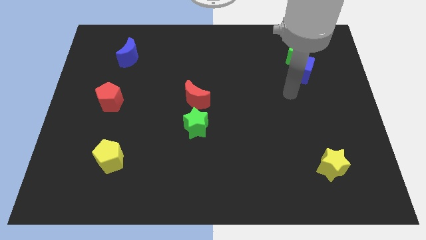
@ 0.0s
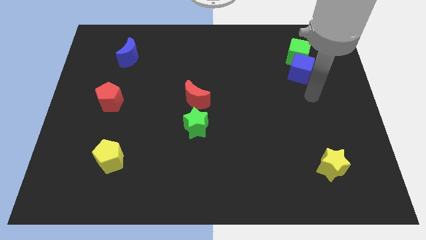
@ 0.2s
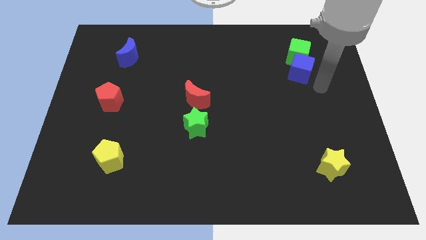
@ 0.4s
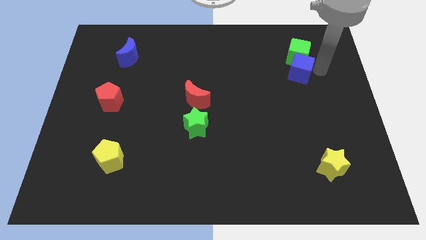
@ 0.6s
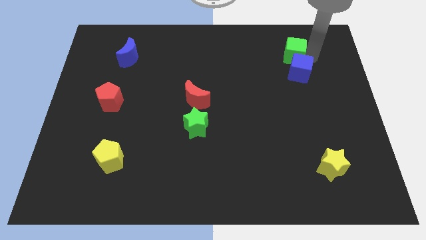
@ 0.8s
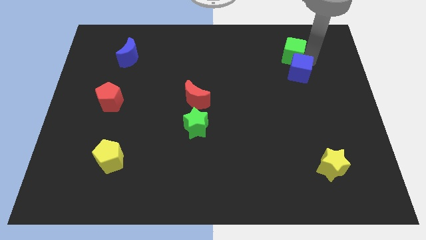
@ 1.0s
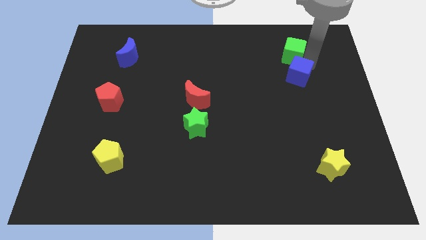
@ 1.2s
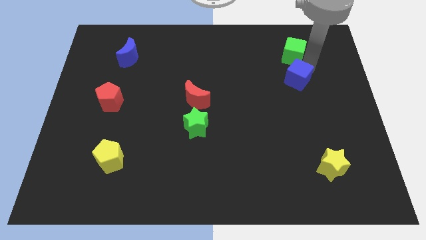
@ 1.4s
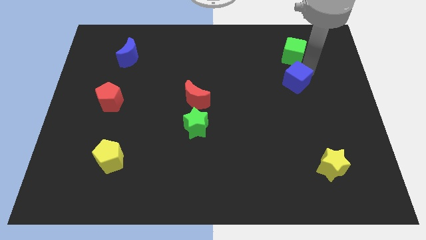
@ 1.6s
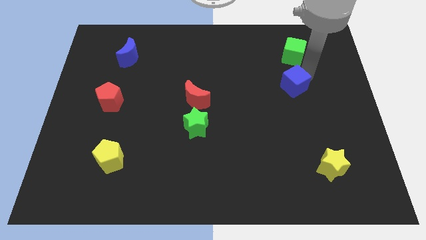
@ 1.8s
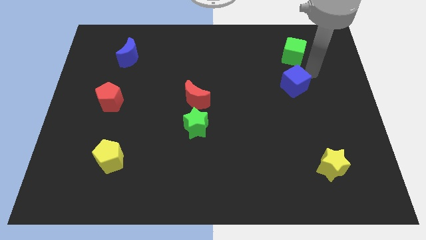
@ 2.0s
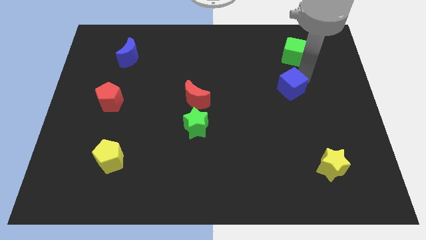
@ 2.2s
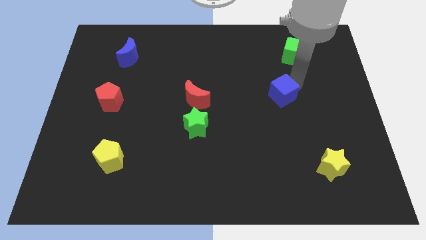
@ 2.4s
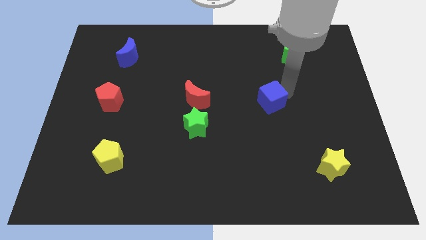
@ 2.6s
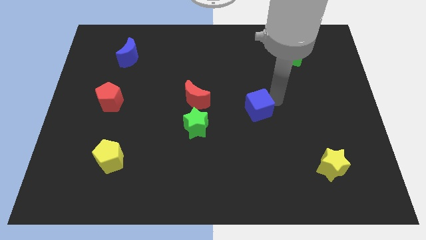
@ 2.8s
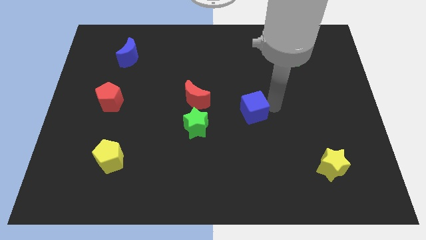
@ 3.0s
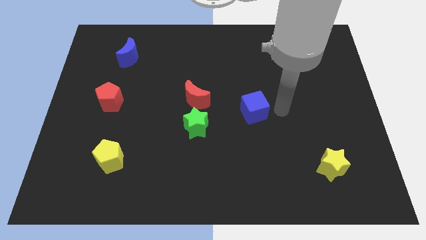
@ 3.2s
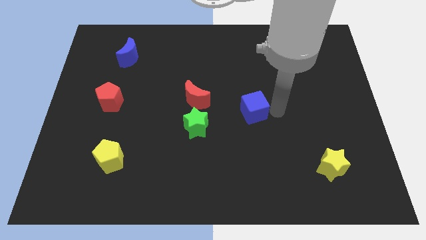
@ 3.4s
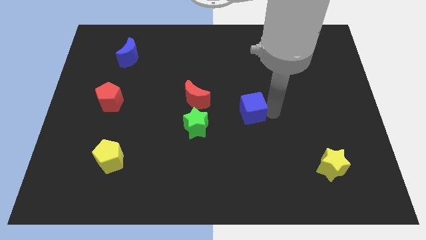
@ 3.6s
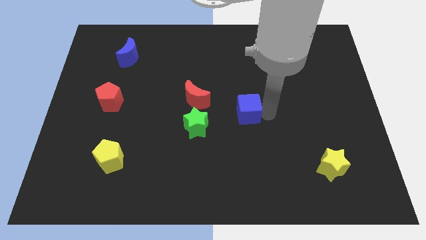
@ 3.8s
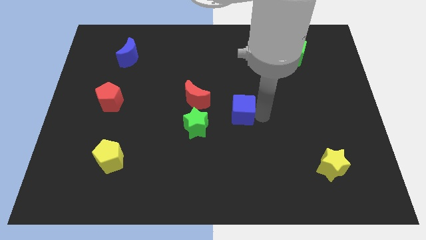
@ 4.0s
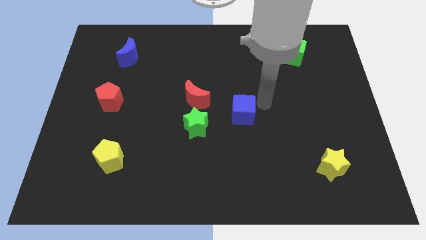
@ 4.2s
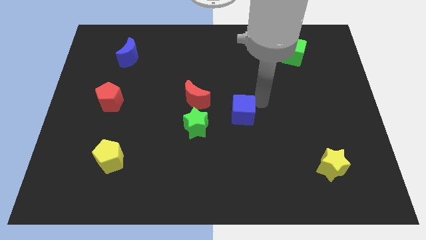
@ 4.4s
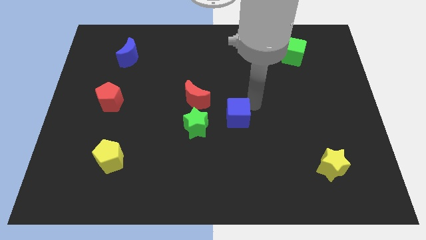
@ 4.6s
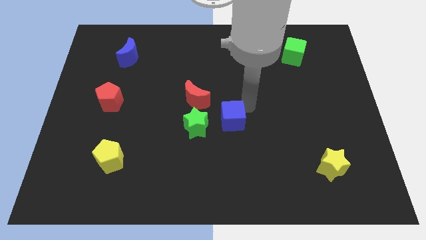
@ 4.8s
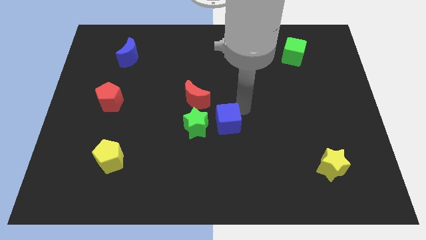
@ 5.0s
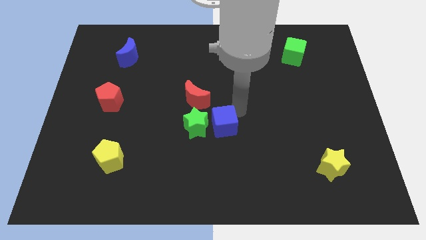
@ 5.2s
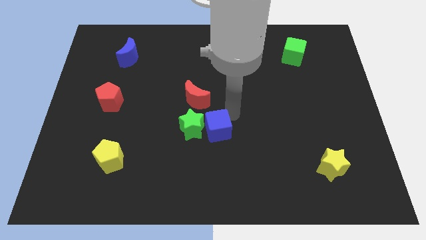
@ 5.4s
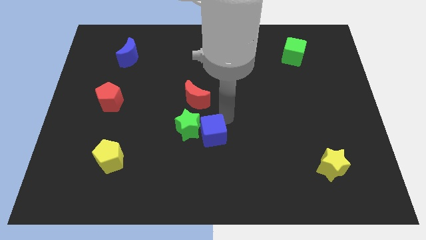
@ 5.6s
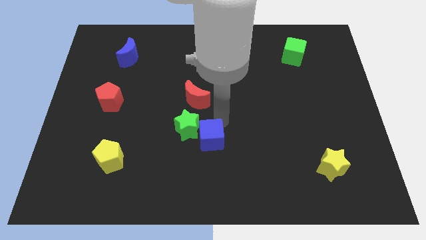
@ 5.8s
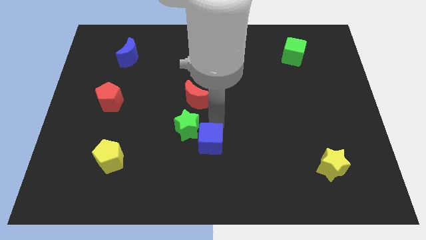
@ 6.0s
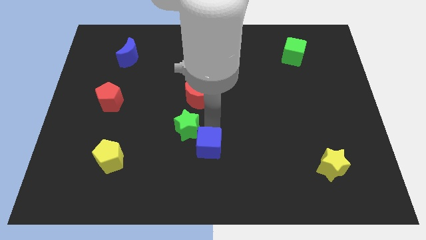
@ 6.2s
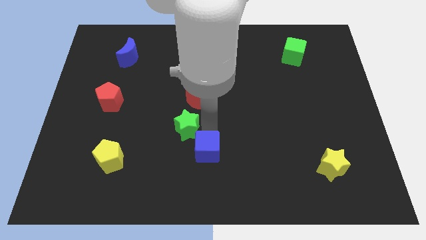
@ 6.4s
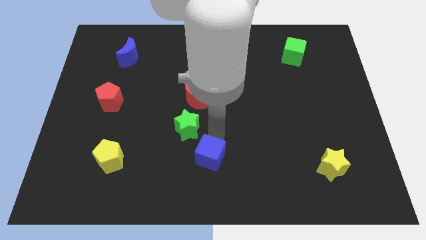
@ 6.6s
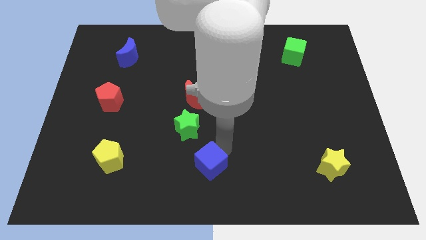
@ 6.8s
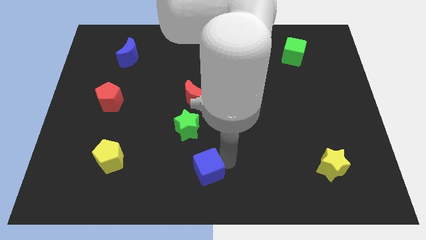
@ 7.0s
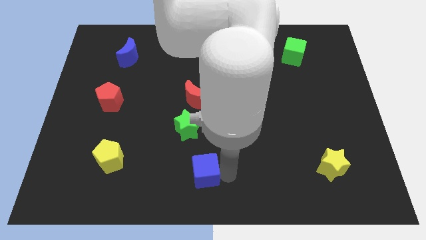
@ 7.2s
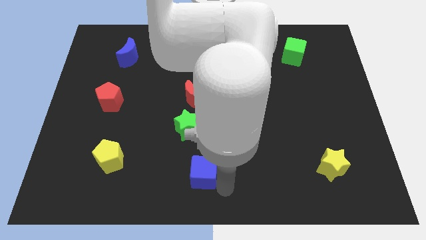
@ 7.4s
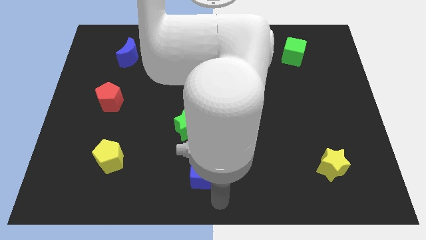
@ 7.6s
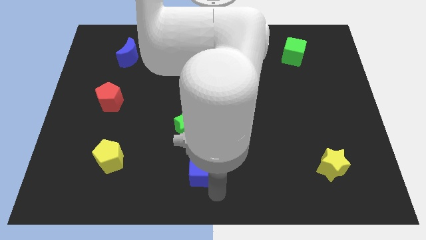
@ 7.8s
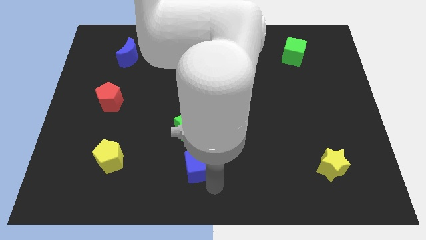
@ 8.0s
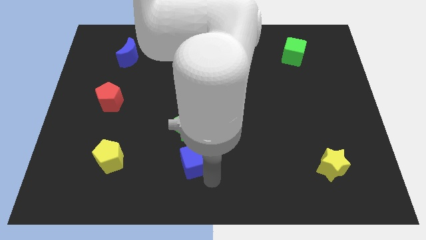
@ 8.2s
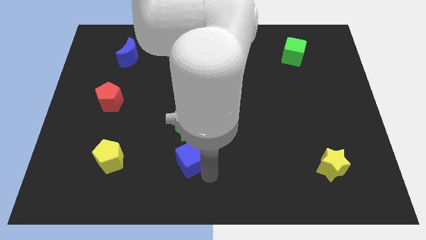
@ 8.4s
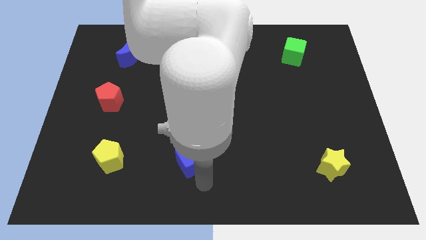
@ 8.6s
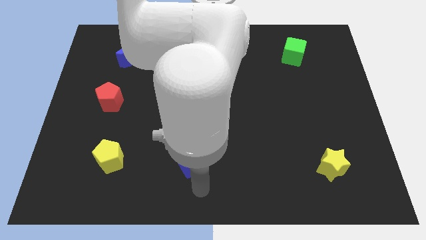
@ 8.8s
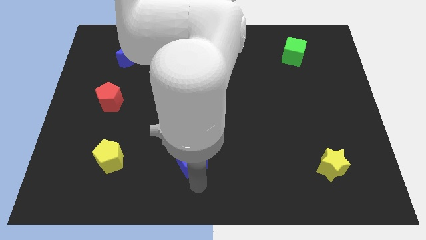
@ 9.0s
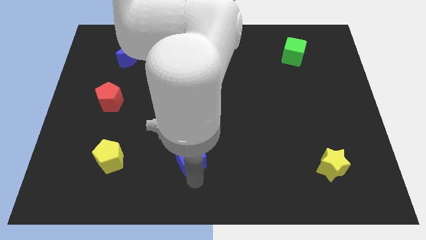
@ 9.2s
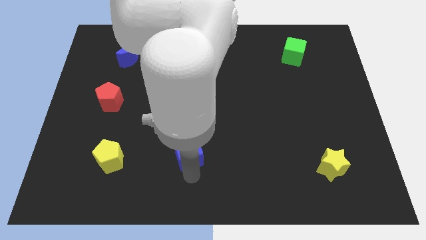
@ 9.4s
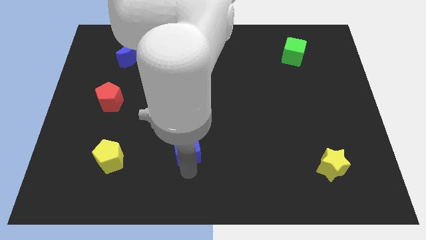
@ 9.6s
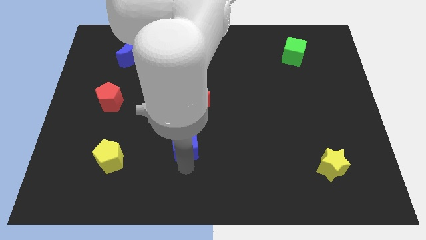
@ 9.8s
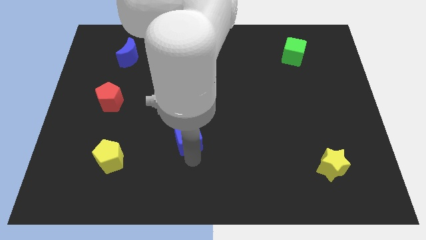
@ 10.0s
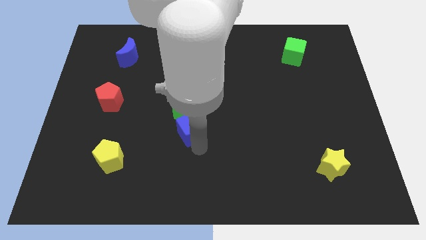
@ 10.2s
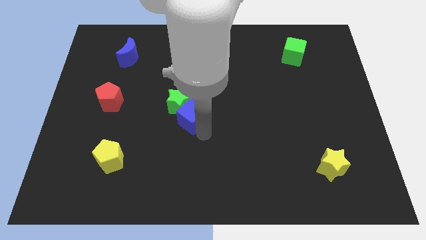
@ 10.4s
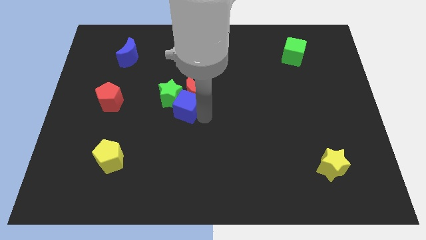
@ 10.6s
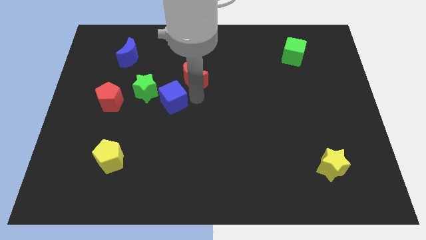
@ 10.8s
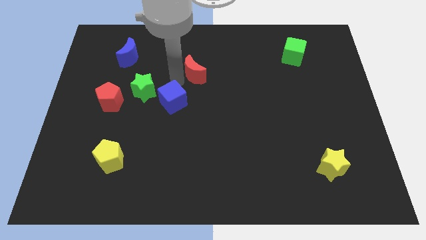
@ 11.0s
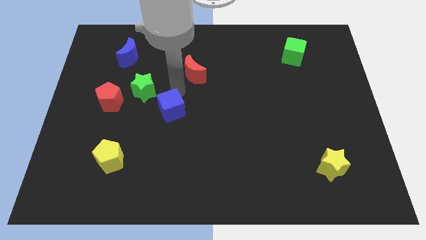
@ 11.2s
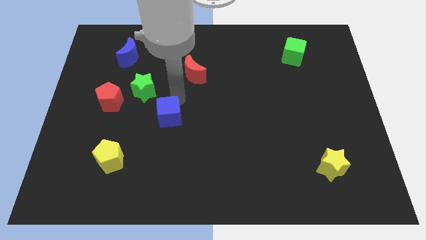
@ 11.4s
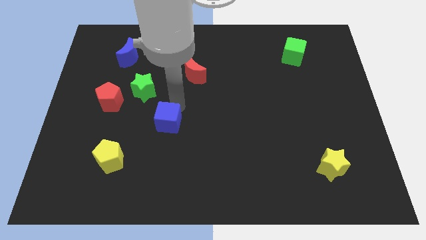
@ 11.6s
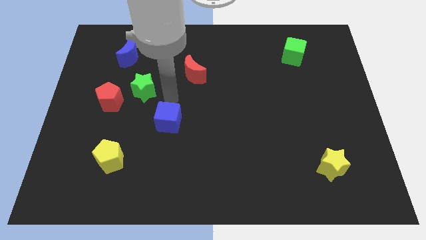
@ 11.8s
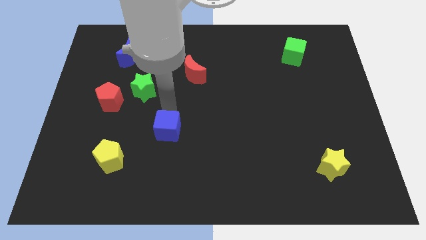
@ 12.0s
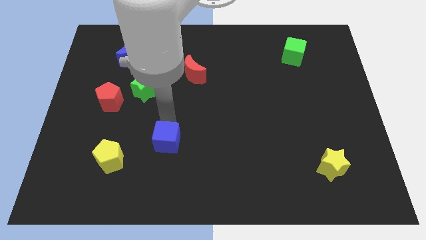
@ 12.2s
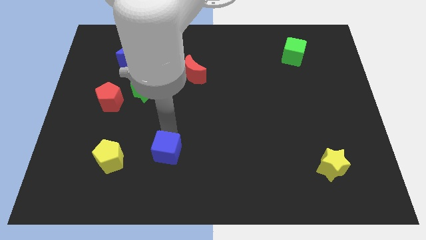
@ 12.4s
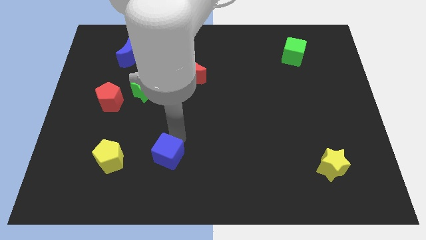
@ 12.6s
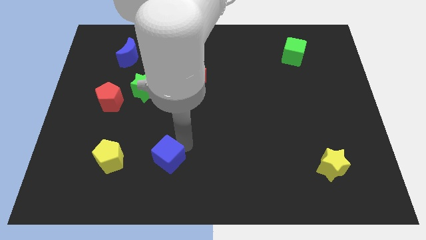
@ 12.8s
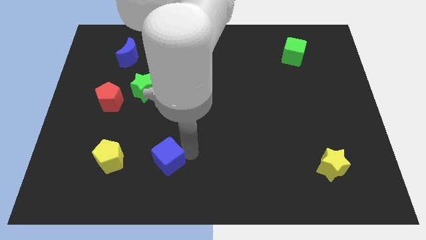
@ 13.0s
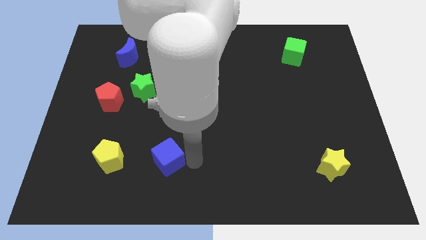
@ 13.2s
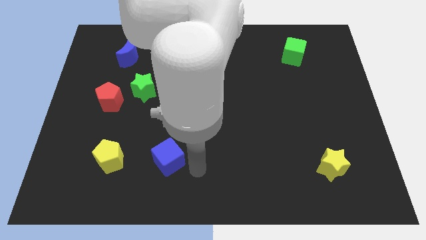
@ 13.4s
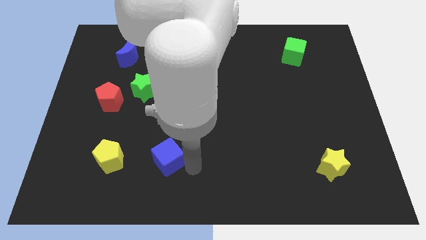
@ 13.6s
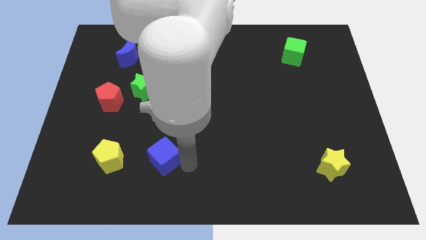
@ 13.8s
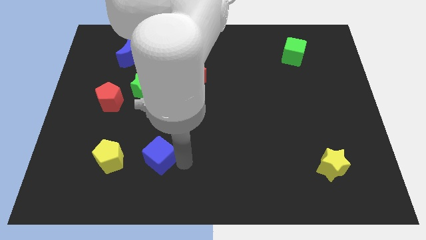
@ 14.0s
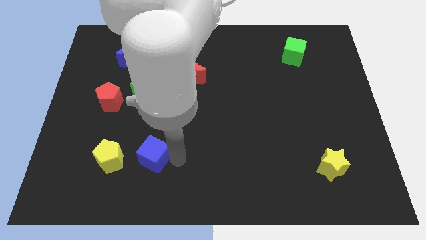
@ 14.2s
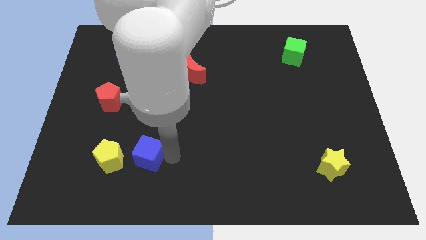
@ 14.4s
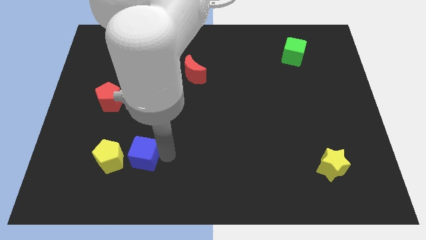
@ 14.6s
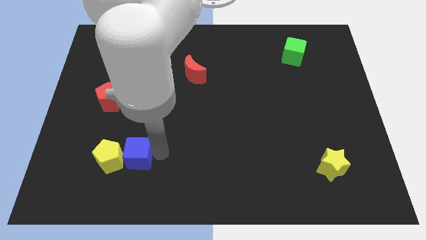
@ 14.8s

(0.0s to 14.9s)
push the blue cube close to the yellow pentagon
